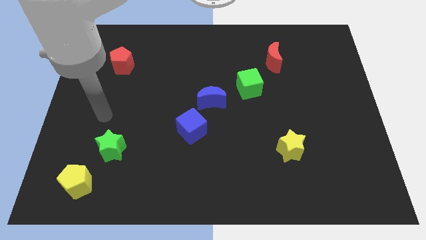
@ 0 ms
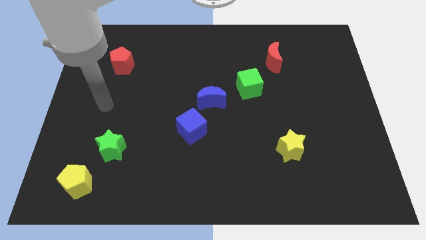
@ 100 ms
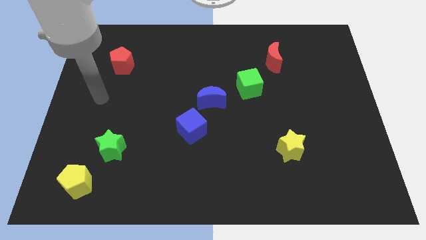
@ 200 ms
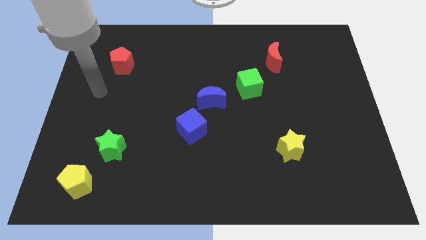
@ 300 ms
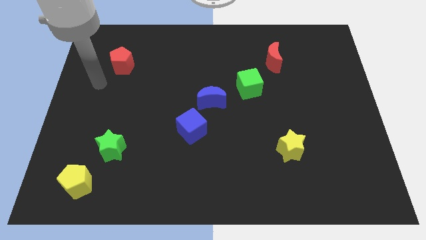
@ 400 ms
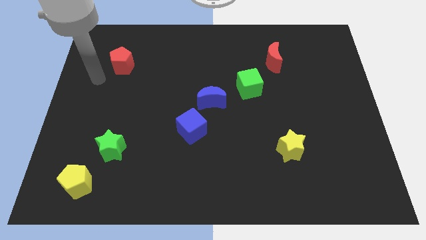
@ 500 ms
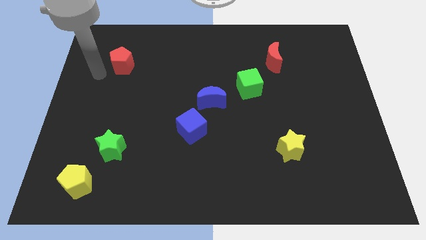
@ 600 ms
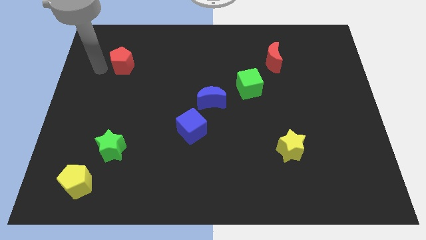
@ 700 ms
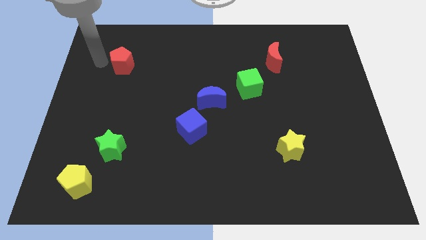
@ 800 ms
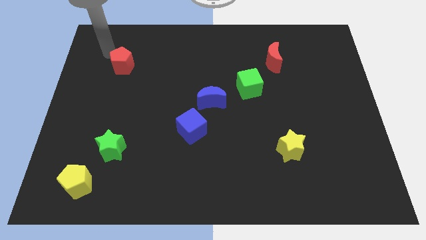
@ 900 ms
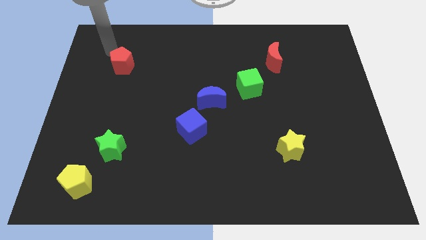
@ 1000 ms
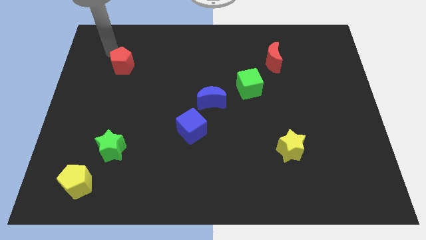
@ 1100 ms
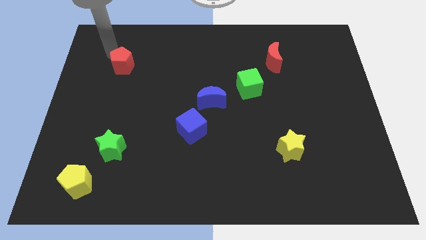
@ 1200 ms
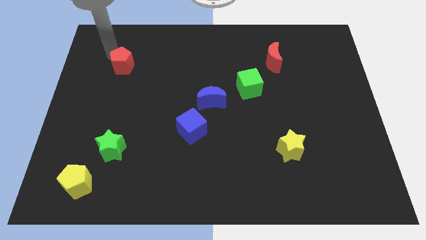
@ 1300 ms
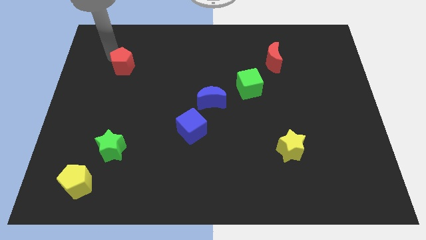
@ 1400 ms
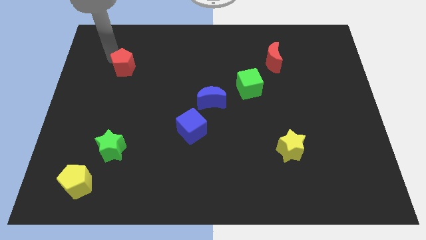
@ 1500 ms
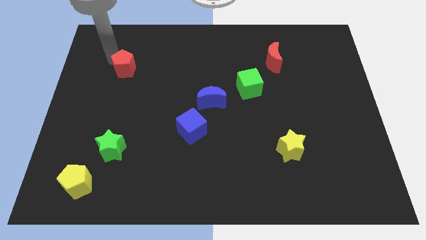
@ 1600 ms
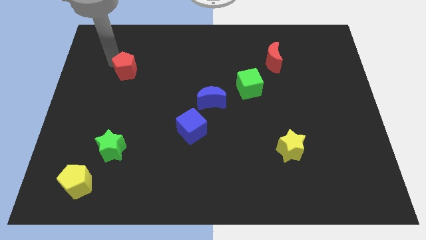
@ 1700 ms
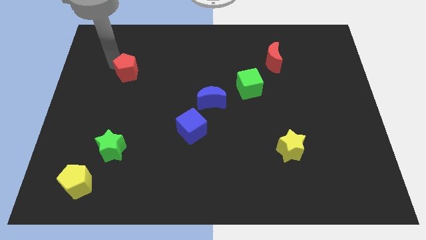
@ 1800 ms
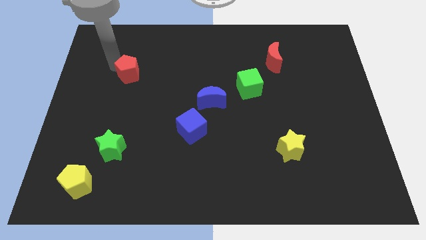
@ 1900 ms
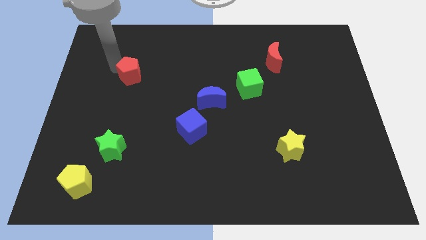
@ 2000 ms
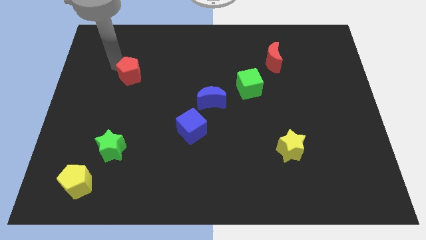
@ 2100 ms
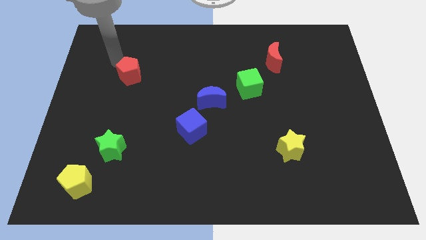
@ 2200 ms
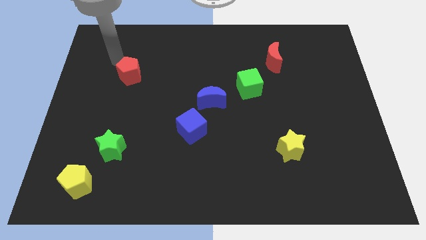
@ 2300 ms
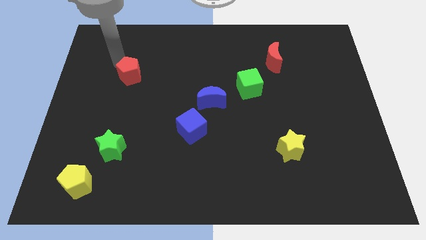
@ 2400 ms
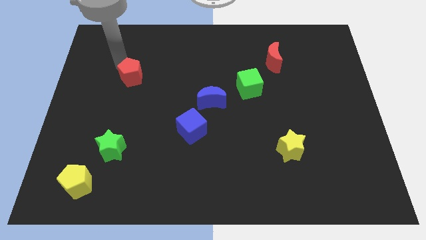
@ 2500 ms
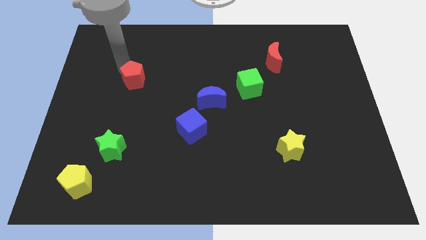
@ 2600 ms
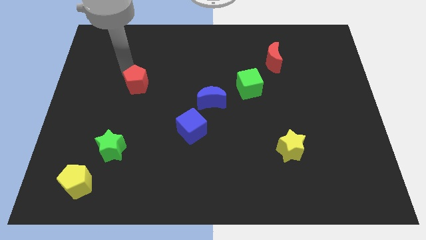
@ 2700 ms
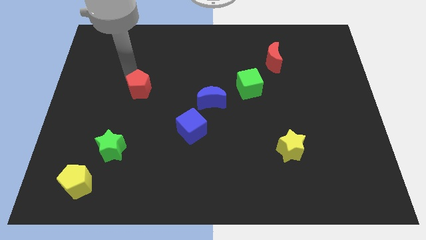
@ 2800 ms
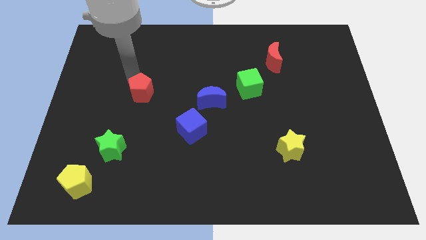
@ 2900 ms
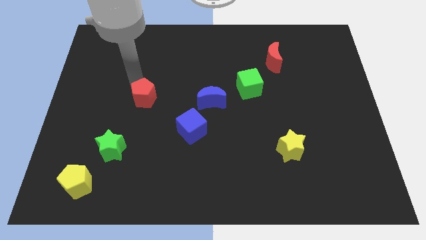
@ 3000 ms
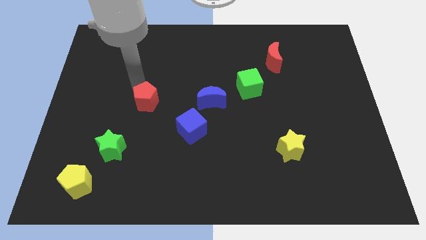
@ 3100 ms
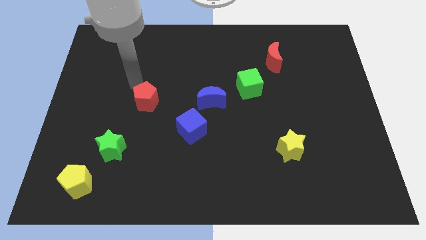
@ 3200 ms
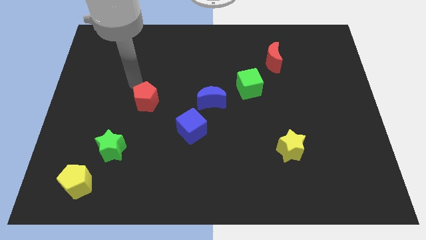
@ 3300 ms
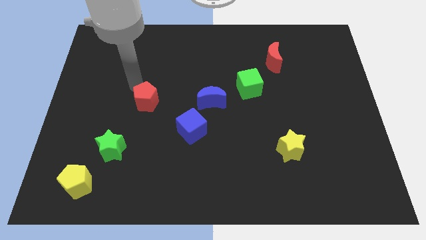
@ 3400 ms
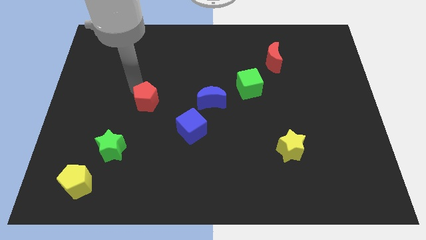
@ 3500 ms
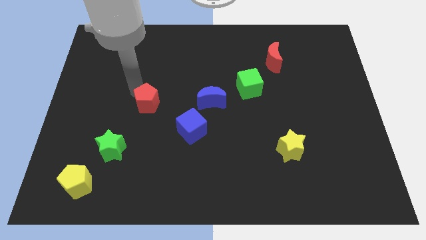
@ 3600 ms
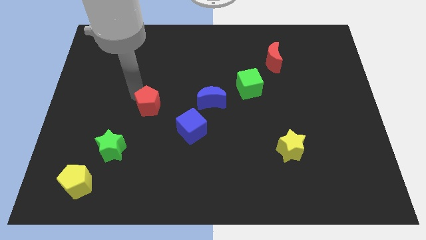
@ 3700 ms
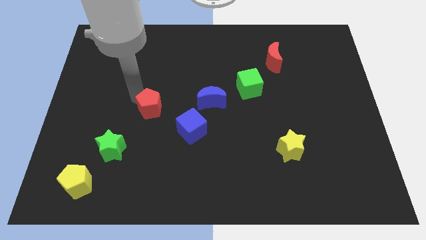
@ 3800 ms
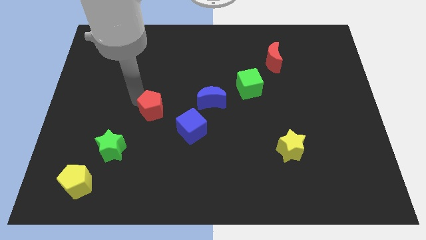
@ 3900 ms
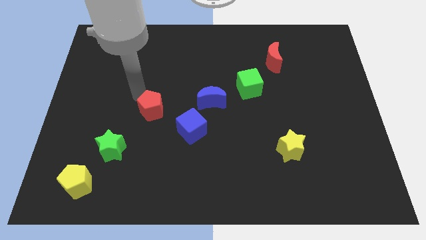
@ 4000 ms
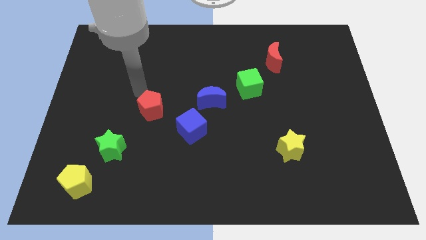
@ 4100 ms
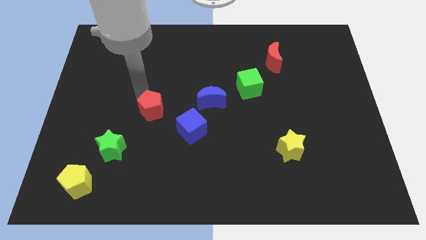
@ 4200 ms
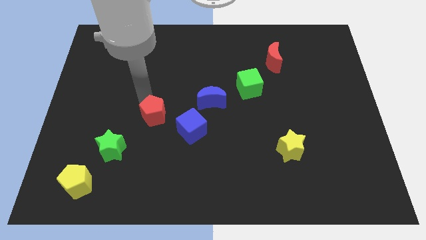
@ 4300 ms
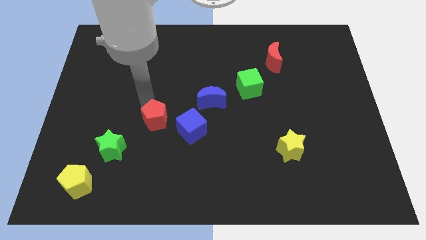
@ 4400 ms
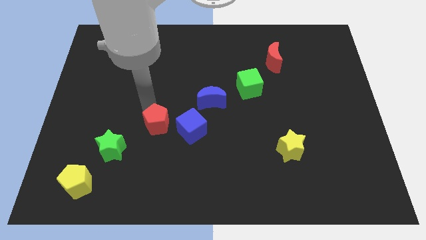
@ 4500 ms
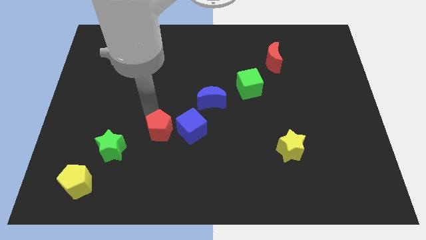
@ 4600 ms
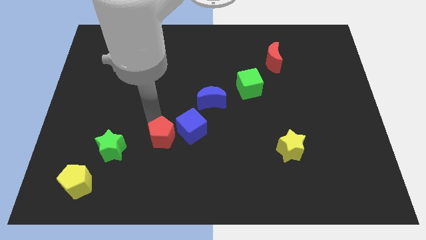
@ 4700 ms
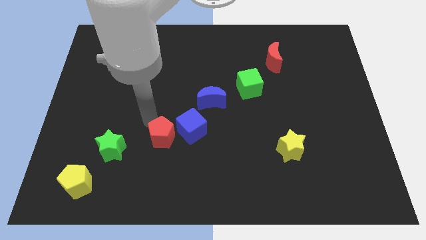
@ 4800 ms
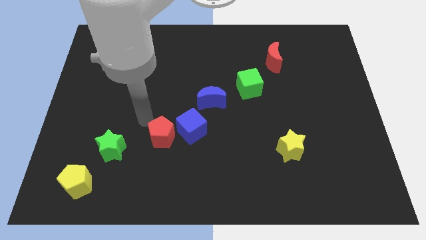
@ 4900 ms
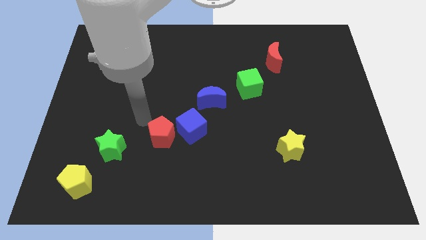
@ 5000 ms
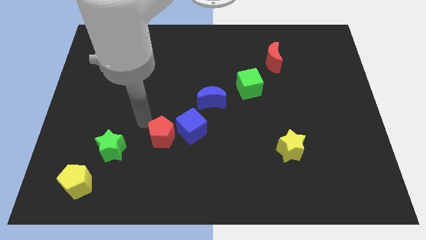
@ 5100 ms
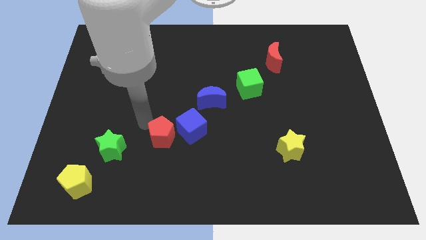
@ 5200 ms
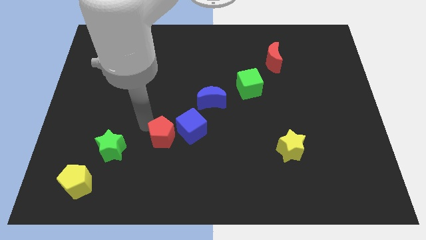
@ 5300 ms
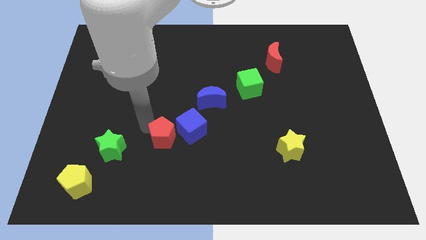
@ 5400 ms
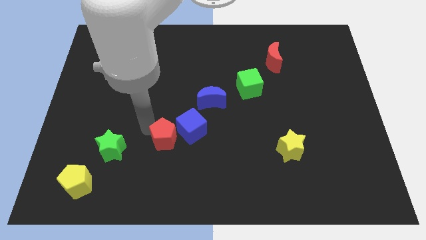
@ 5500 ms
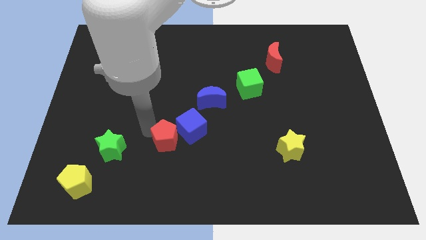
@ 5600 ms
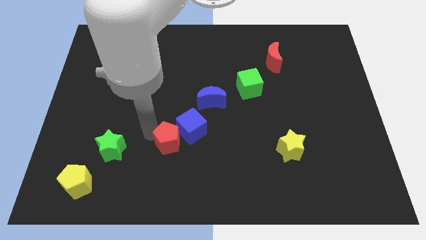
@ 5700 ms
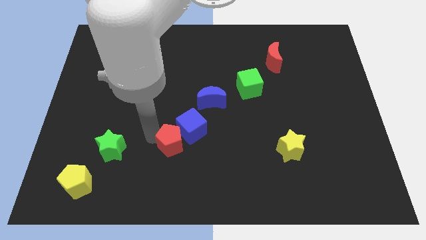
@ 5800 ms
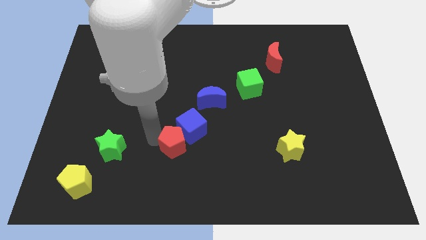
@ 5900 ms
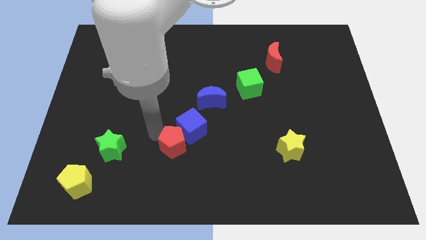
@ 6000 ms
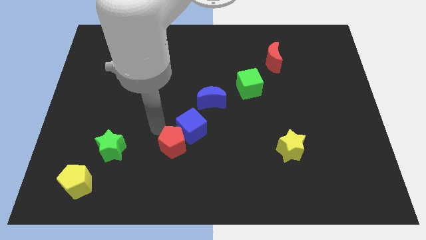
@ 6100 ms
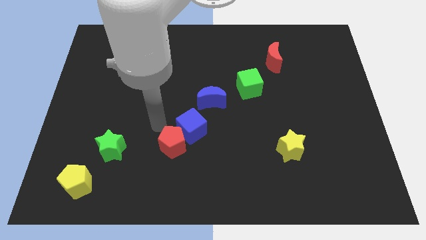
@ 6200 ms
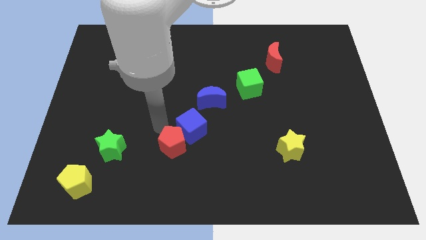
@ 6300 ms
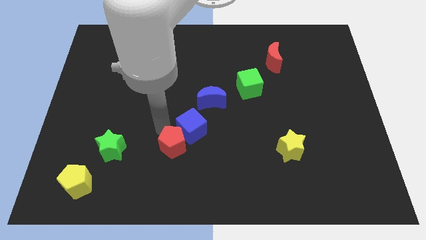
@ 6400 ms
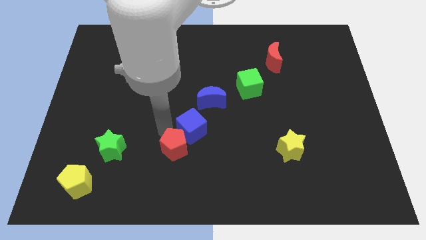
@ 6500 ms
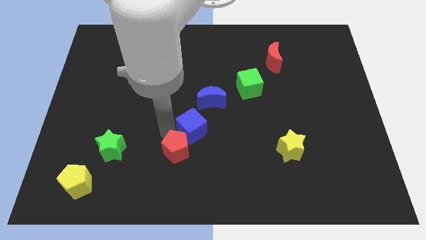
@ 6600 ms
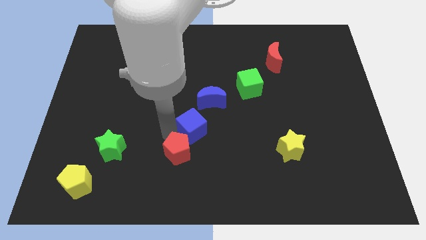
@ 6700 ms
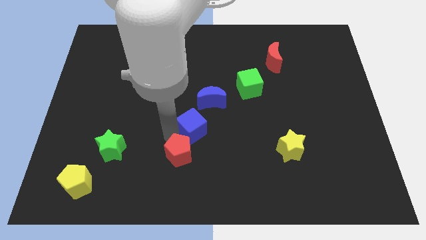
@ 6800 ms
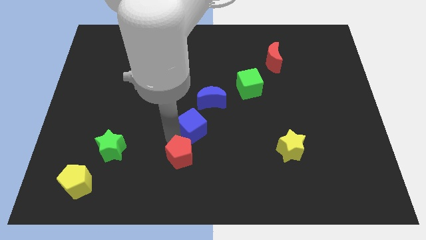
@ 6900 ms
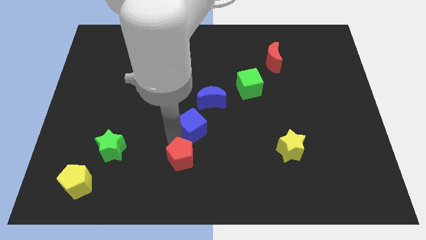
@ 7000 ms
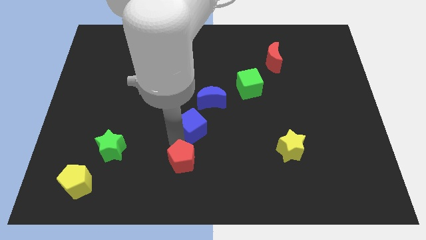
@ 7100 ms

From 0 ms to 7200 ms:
push the red pentagon to the bottom side
